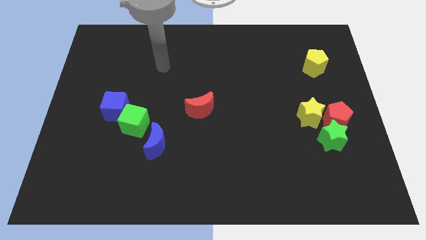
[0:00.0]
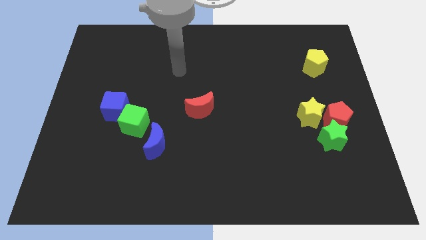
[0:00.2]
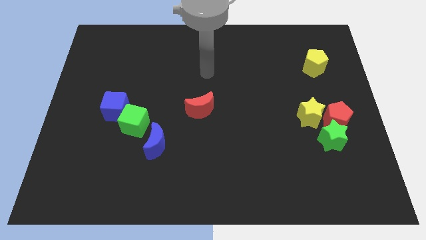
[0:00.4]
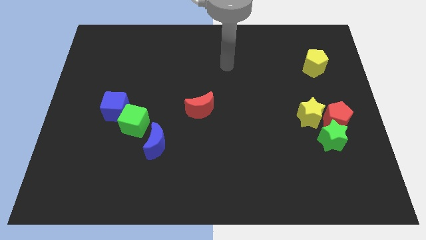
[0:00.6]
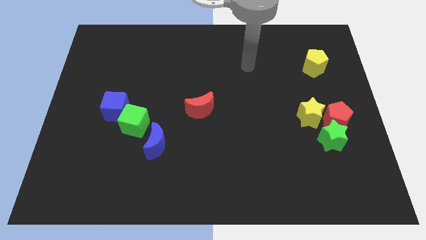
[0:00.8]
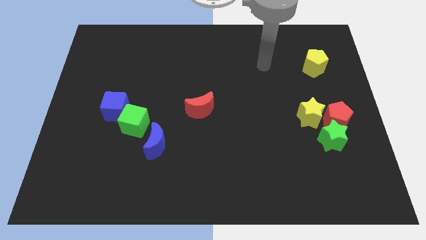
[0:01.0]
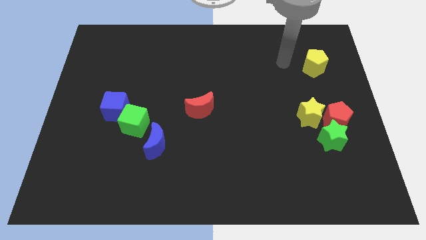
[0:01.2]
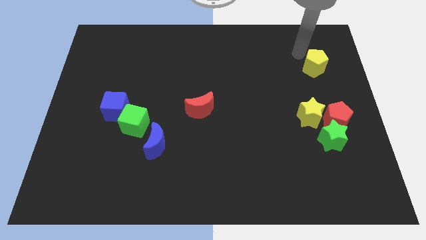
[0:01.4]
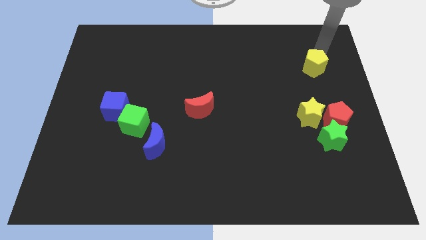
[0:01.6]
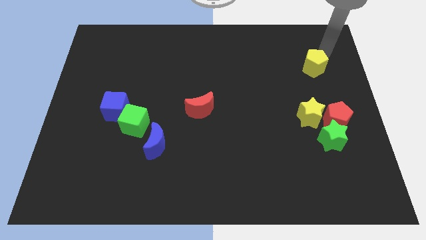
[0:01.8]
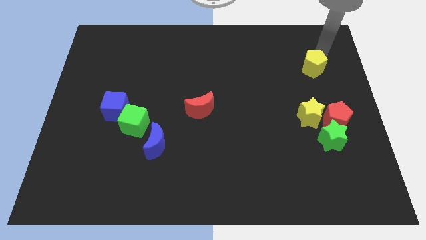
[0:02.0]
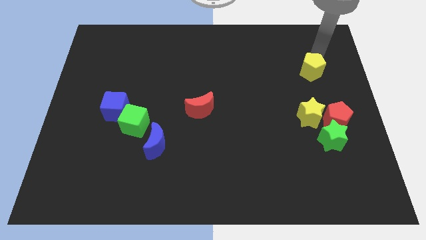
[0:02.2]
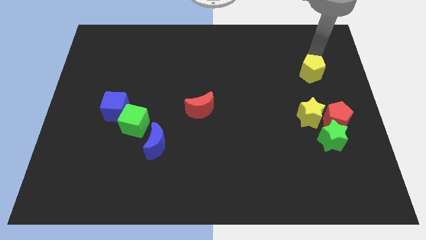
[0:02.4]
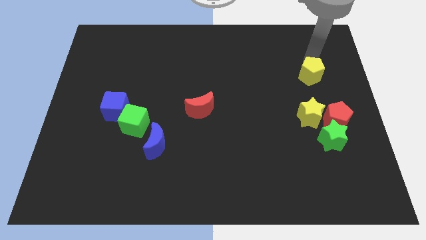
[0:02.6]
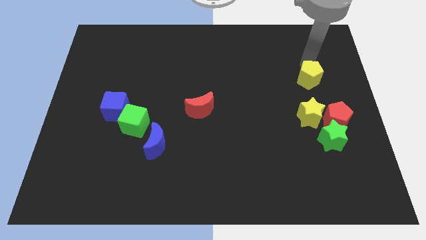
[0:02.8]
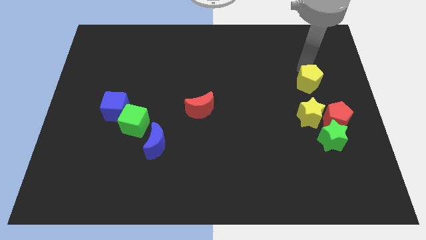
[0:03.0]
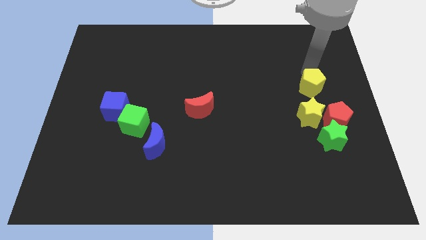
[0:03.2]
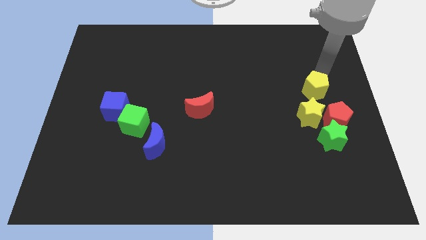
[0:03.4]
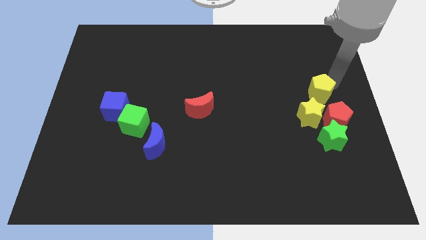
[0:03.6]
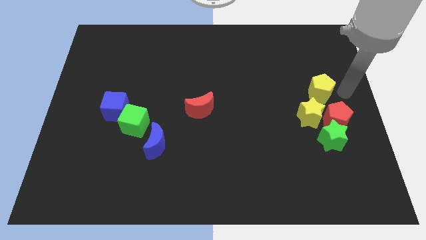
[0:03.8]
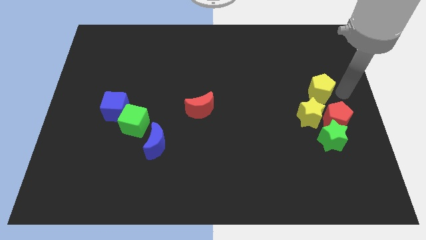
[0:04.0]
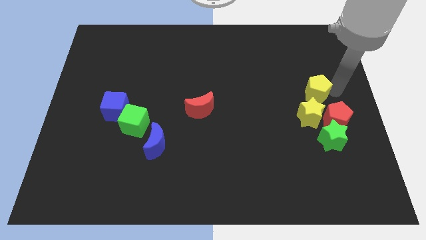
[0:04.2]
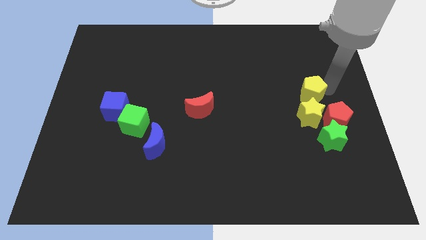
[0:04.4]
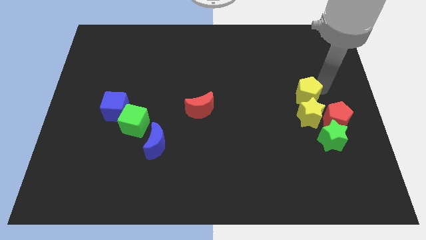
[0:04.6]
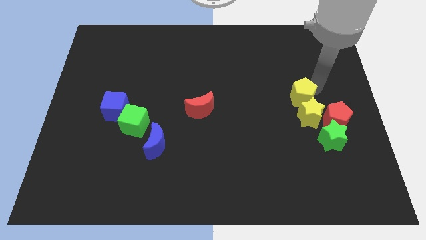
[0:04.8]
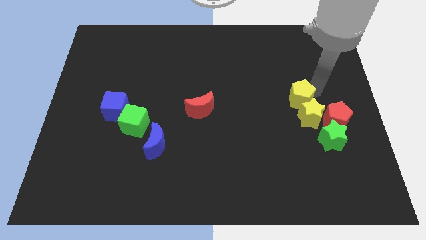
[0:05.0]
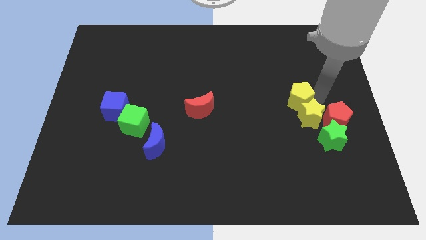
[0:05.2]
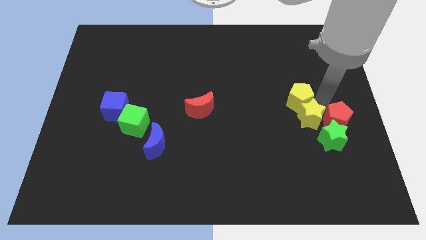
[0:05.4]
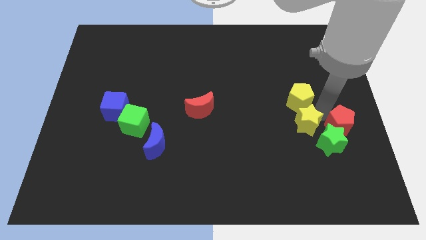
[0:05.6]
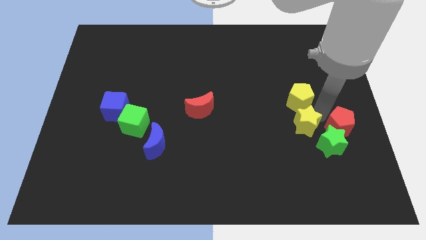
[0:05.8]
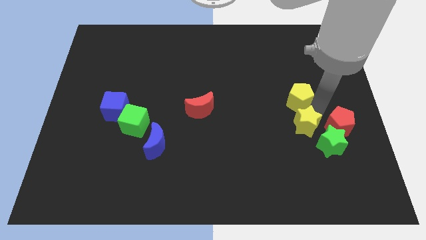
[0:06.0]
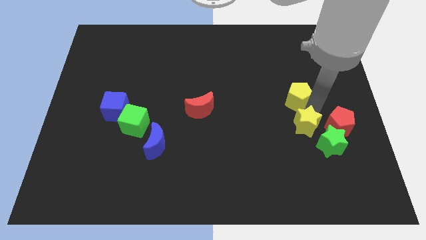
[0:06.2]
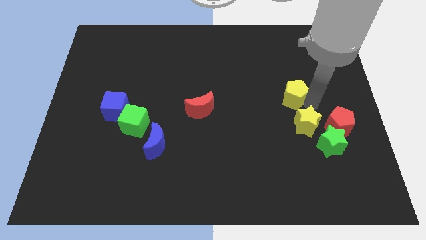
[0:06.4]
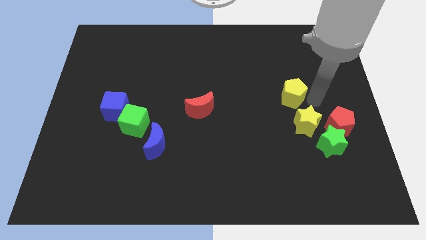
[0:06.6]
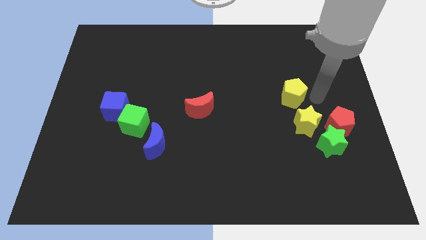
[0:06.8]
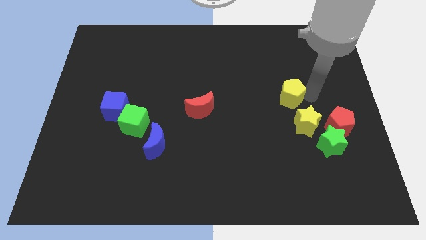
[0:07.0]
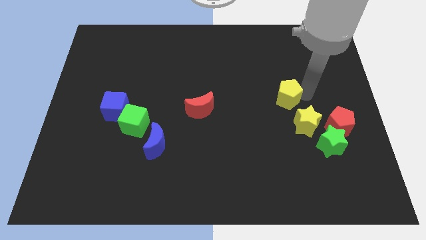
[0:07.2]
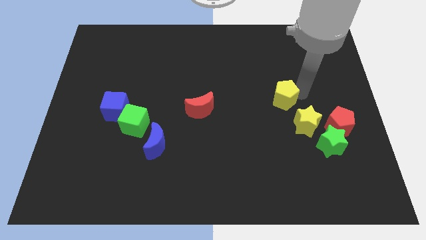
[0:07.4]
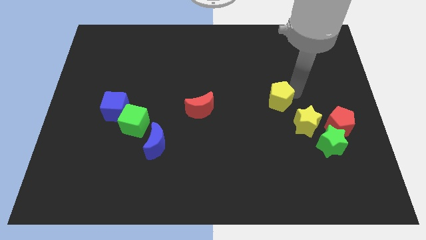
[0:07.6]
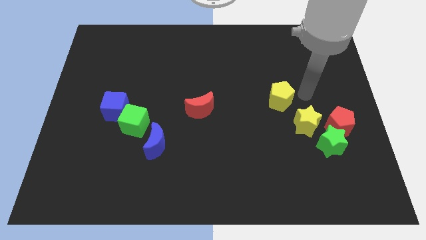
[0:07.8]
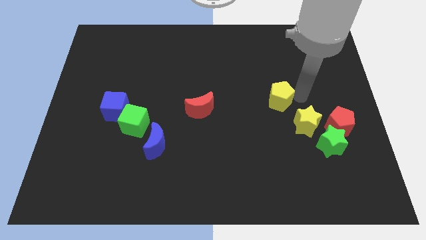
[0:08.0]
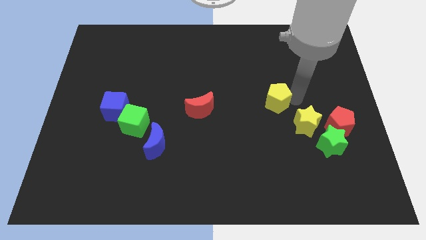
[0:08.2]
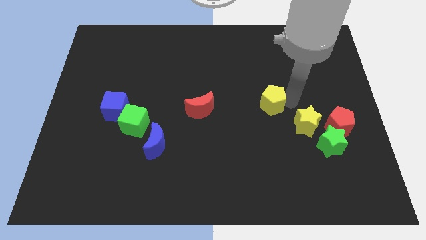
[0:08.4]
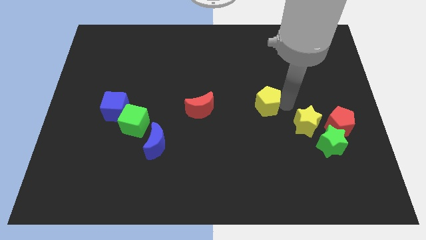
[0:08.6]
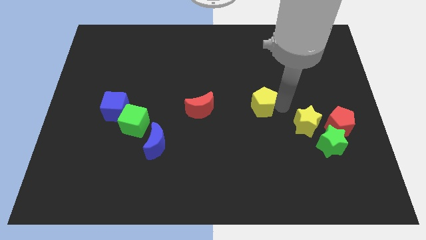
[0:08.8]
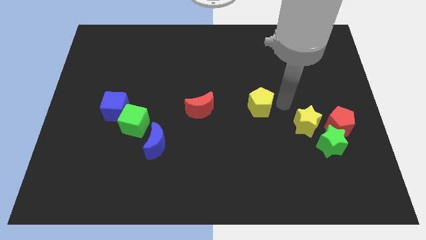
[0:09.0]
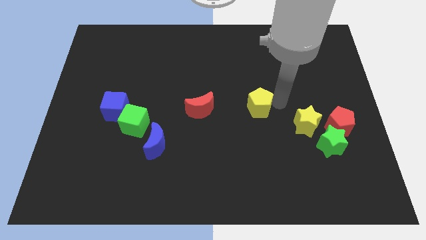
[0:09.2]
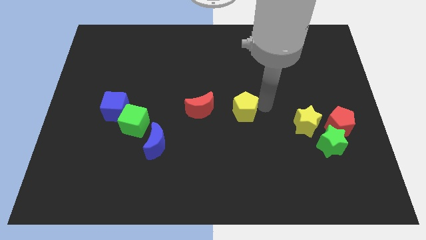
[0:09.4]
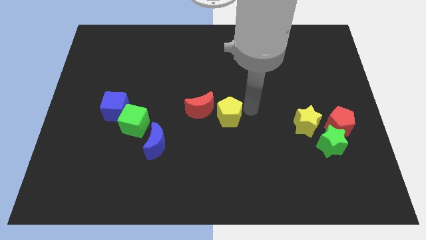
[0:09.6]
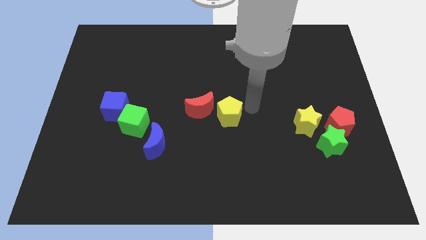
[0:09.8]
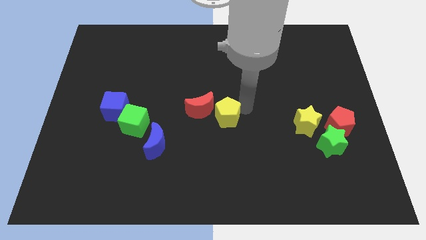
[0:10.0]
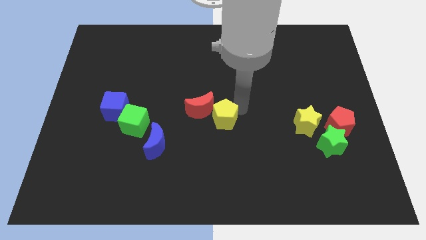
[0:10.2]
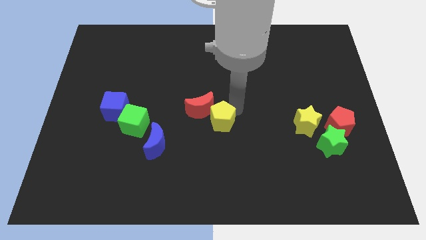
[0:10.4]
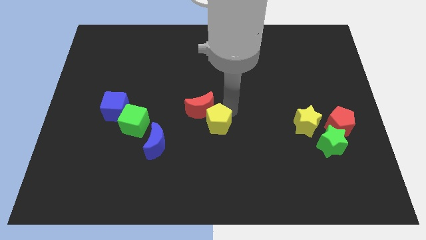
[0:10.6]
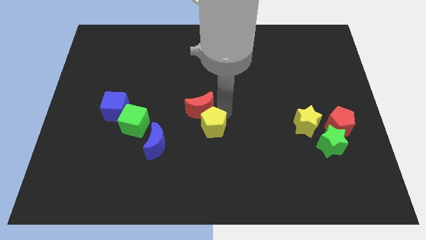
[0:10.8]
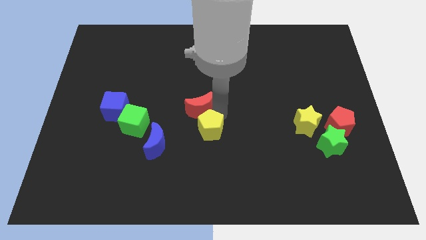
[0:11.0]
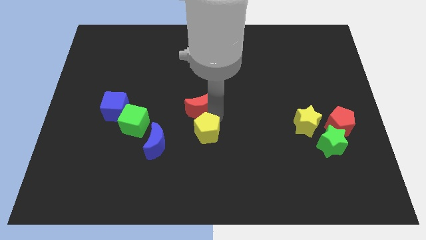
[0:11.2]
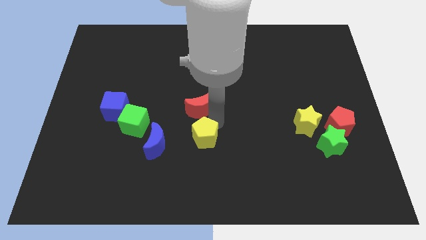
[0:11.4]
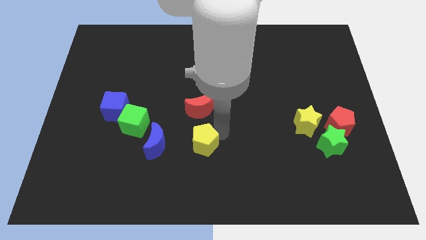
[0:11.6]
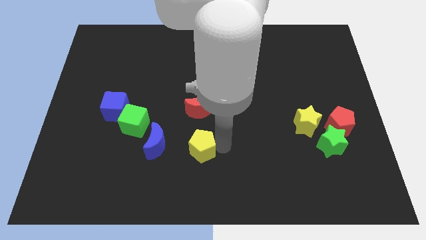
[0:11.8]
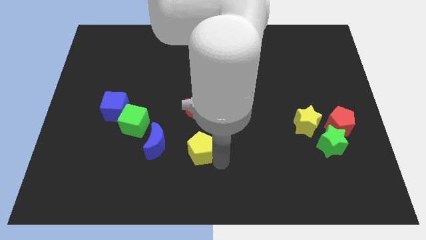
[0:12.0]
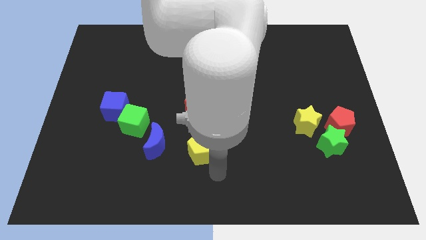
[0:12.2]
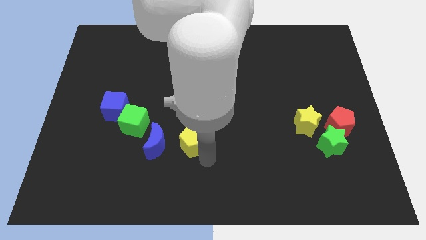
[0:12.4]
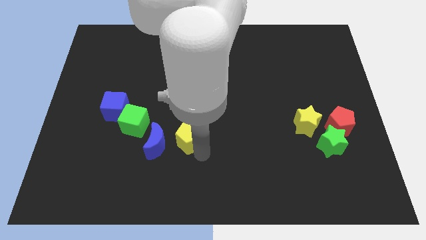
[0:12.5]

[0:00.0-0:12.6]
slide the yellow pentagon to the right side of the green cube
